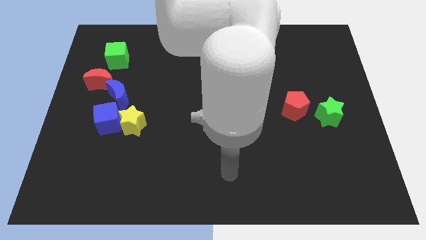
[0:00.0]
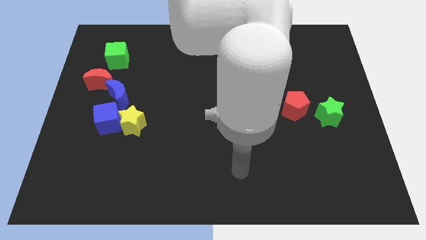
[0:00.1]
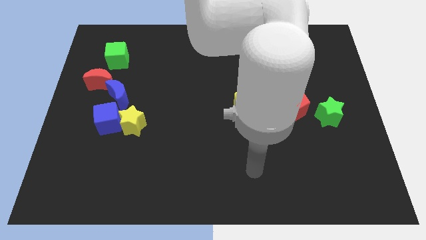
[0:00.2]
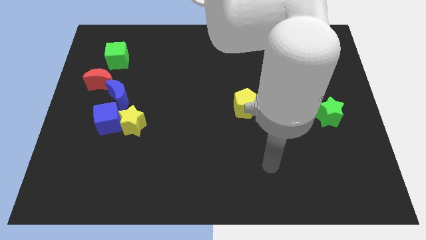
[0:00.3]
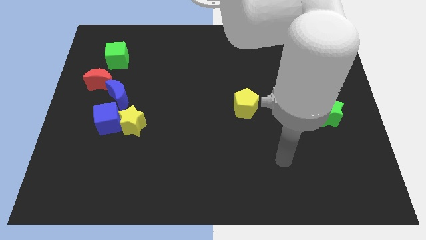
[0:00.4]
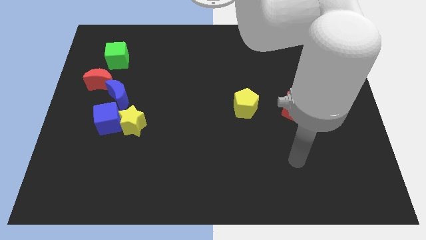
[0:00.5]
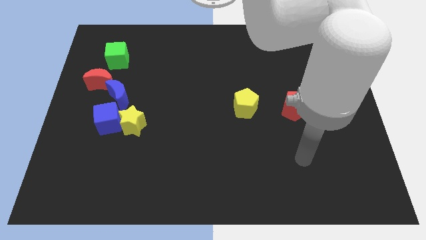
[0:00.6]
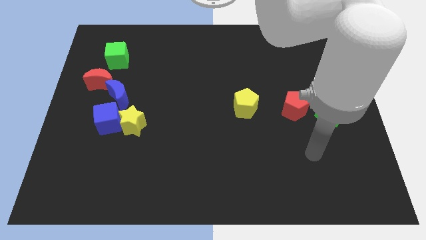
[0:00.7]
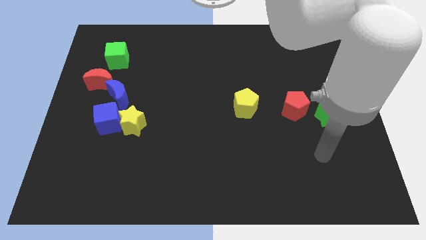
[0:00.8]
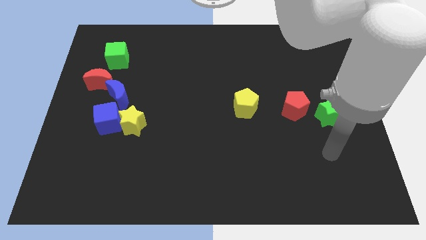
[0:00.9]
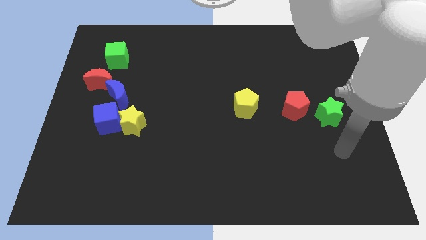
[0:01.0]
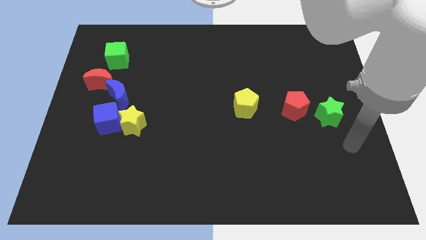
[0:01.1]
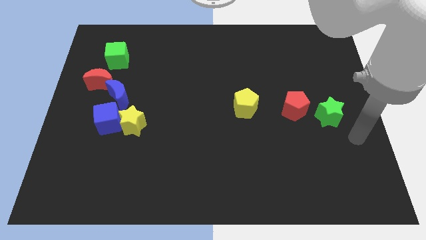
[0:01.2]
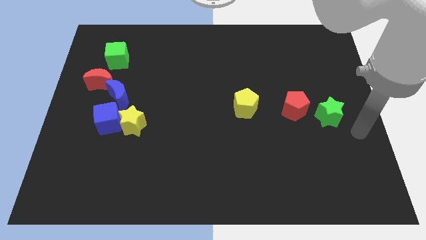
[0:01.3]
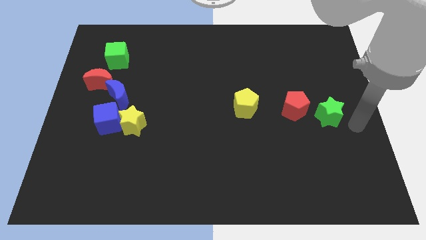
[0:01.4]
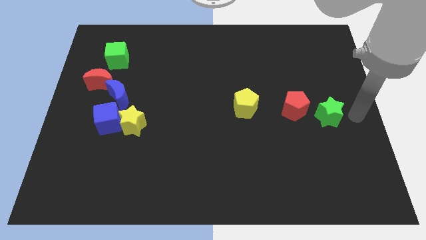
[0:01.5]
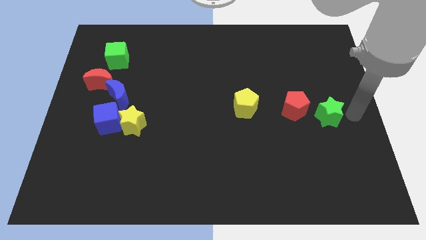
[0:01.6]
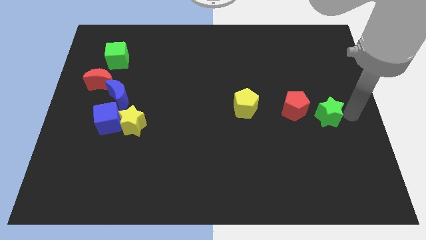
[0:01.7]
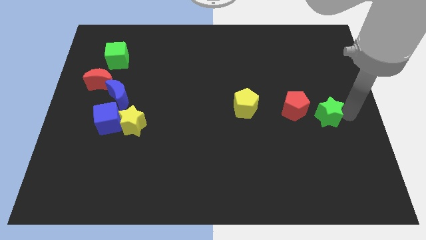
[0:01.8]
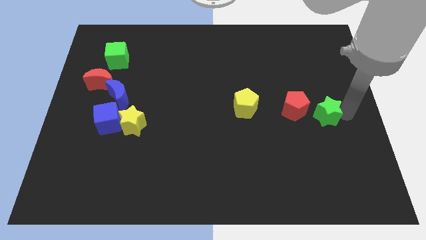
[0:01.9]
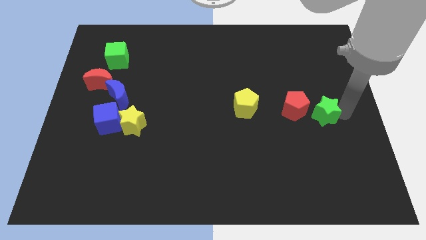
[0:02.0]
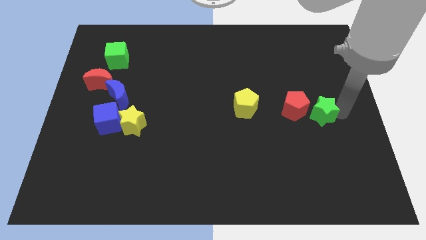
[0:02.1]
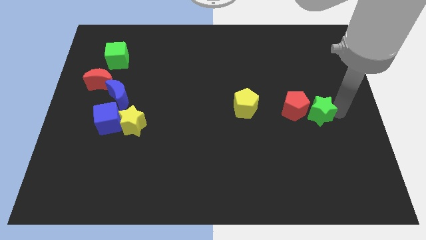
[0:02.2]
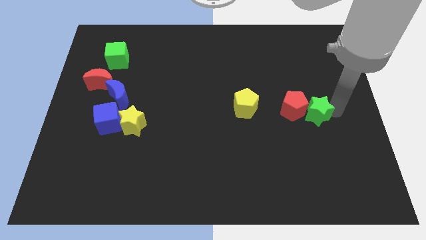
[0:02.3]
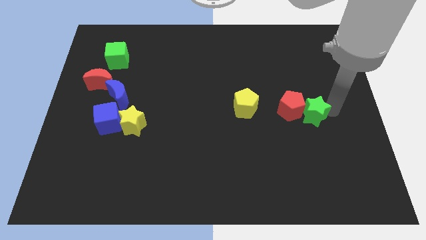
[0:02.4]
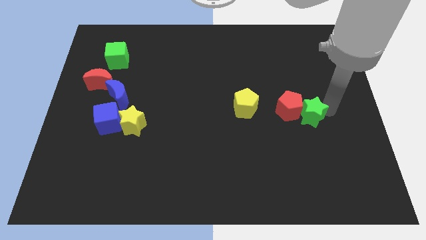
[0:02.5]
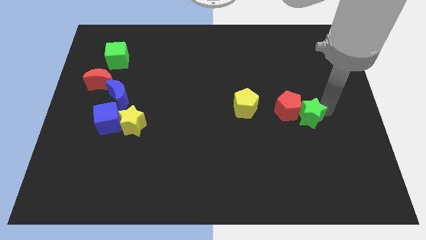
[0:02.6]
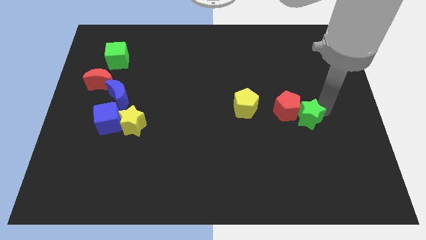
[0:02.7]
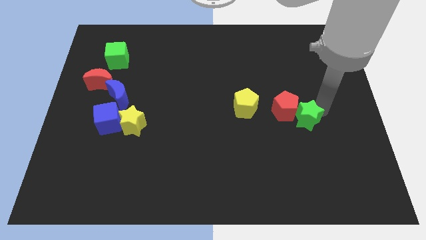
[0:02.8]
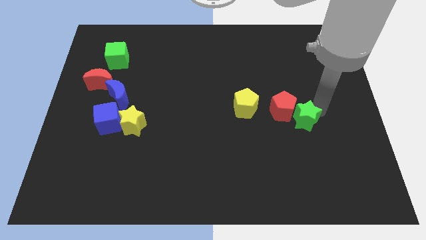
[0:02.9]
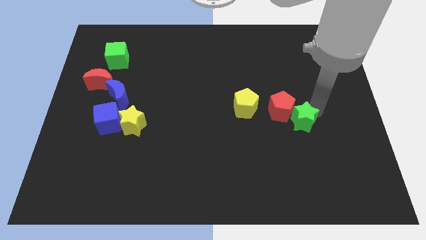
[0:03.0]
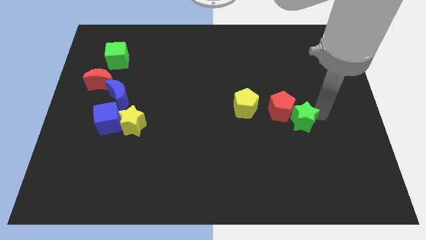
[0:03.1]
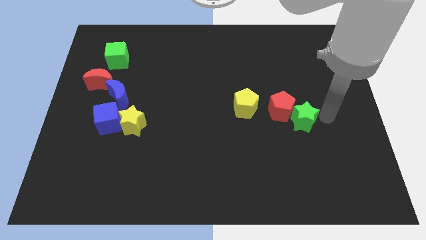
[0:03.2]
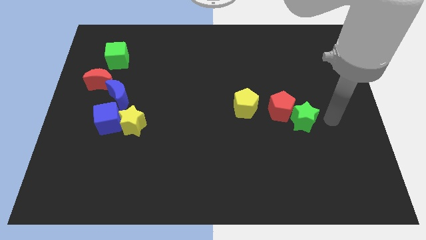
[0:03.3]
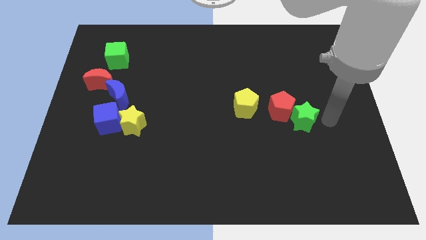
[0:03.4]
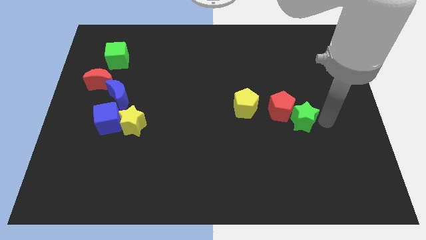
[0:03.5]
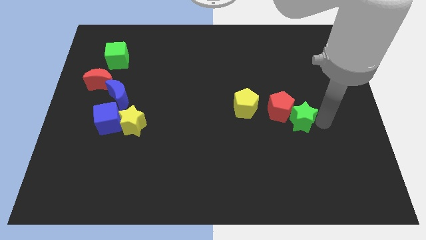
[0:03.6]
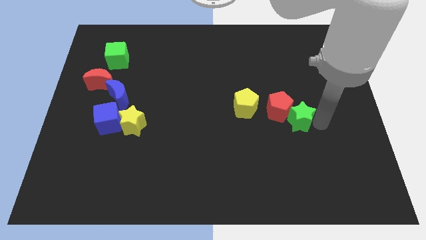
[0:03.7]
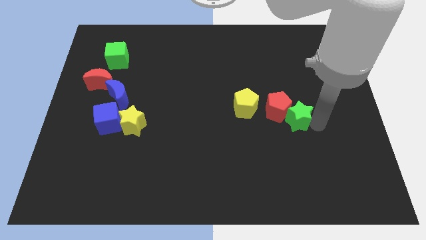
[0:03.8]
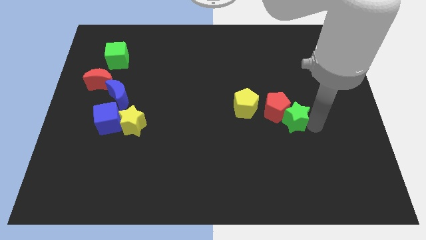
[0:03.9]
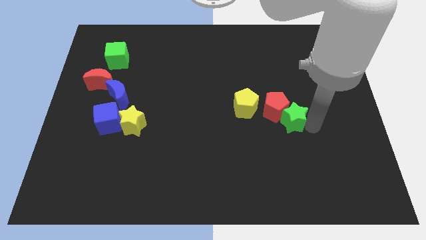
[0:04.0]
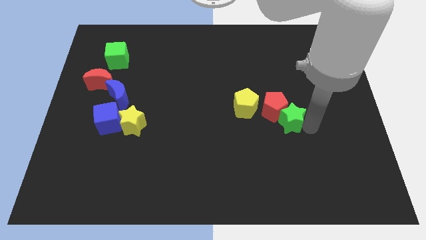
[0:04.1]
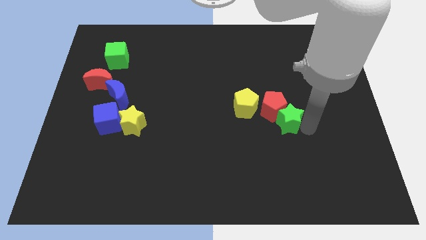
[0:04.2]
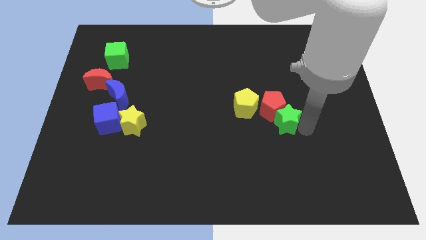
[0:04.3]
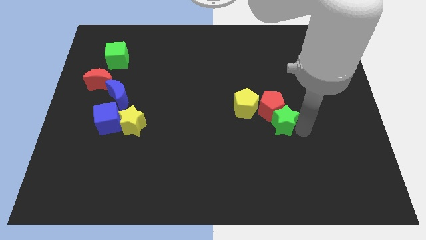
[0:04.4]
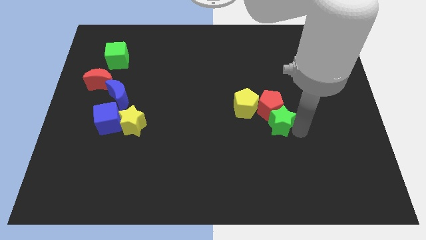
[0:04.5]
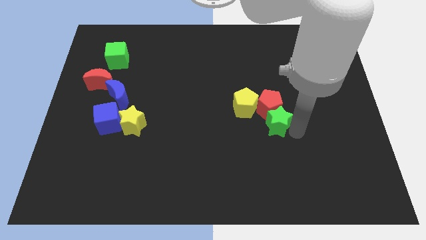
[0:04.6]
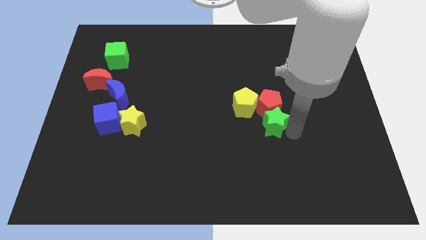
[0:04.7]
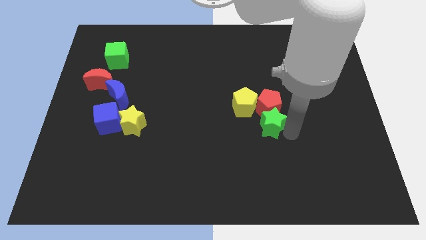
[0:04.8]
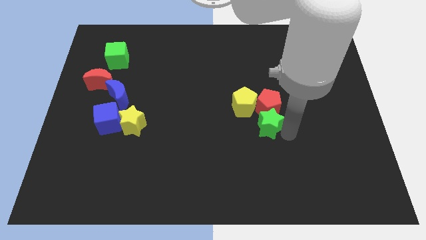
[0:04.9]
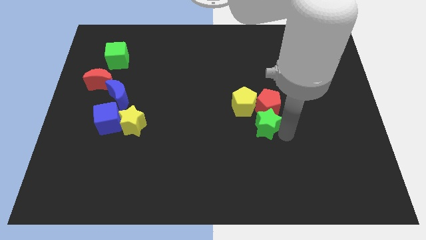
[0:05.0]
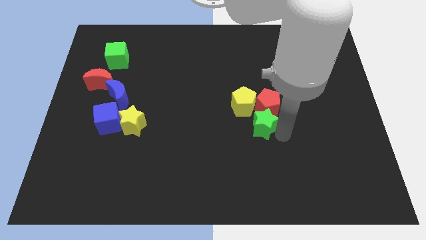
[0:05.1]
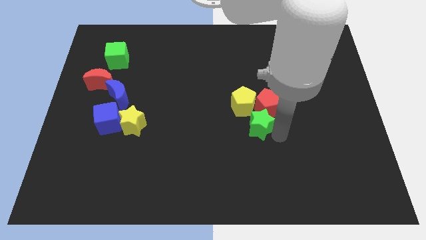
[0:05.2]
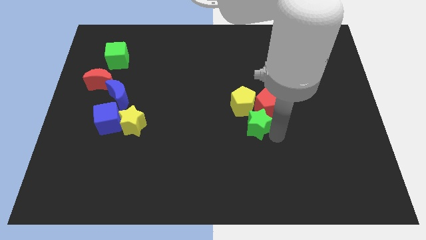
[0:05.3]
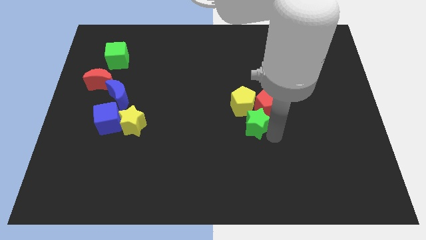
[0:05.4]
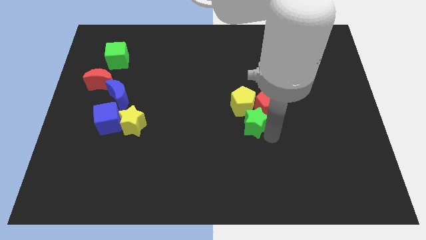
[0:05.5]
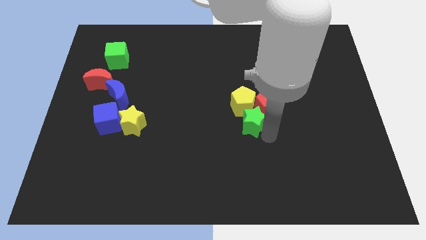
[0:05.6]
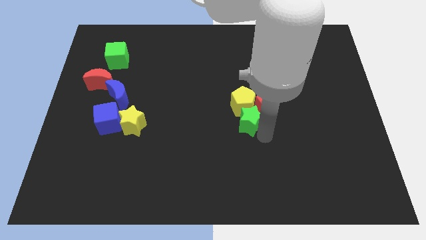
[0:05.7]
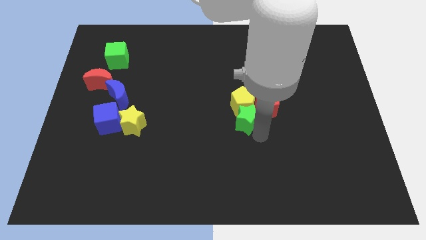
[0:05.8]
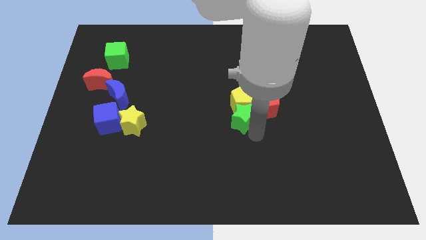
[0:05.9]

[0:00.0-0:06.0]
slide the green star left

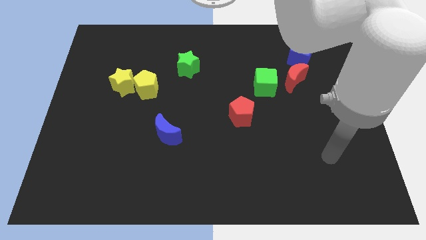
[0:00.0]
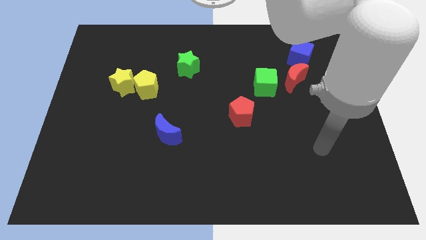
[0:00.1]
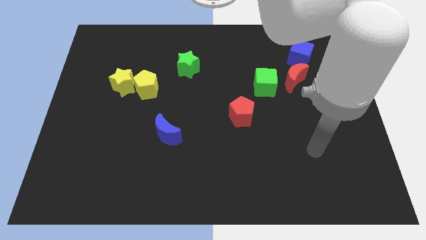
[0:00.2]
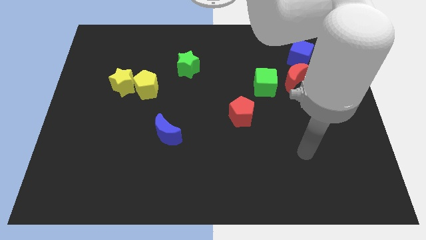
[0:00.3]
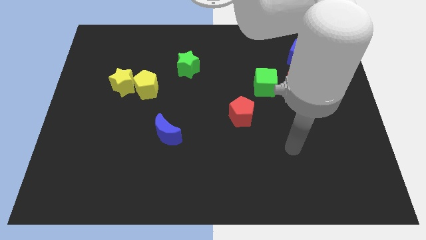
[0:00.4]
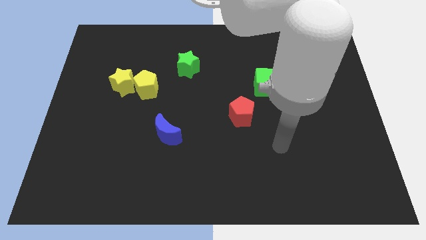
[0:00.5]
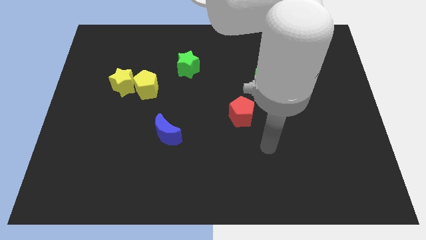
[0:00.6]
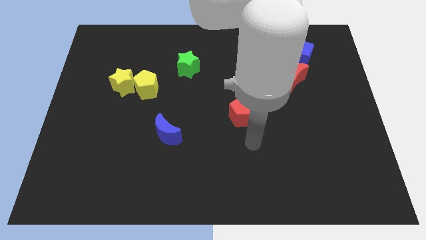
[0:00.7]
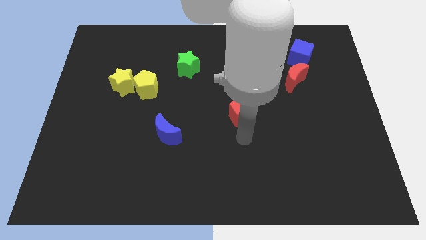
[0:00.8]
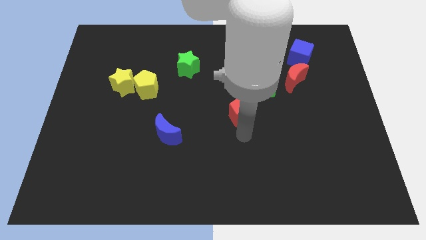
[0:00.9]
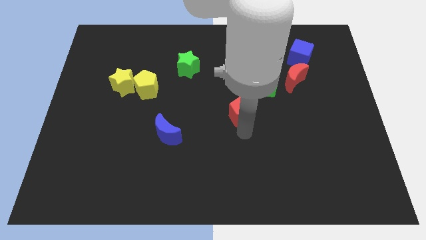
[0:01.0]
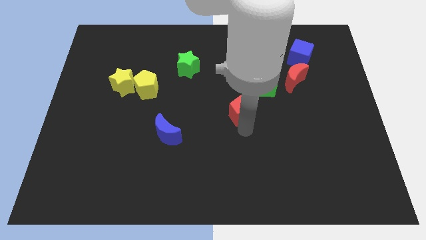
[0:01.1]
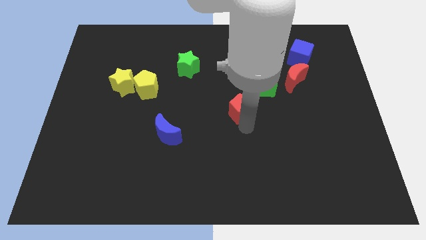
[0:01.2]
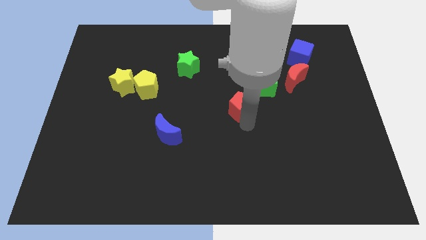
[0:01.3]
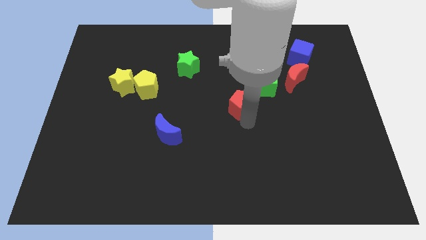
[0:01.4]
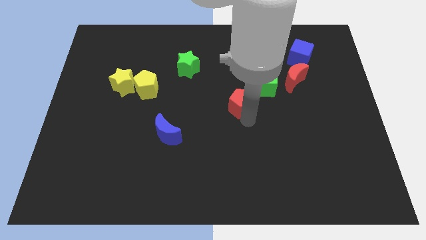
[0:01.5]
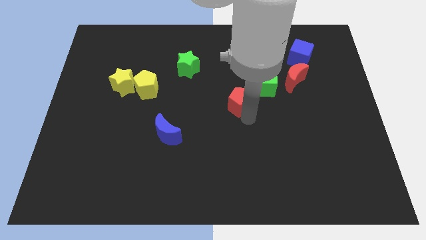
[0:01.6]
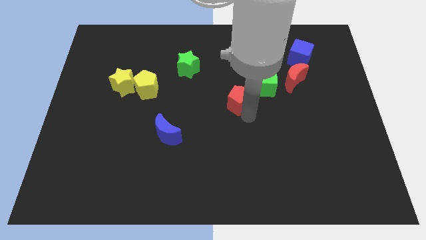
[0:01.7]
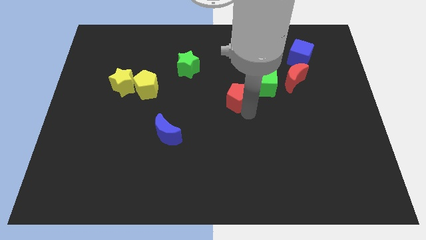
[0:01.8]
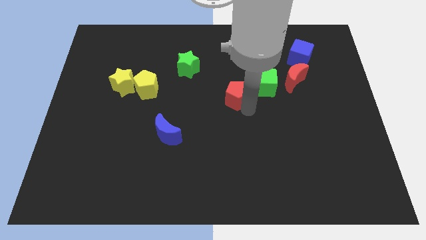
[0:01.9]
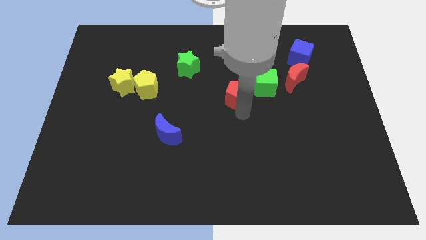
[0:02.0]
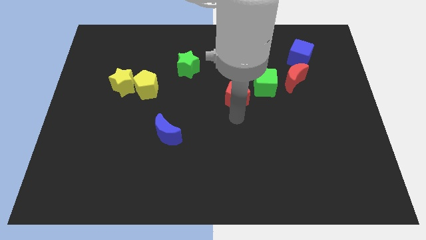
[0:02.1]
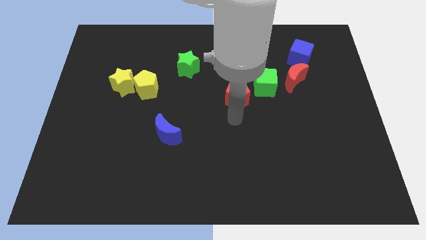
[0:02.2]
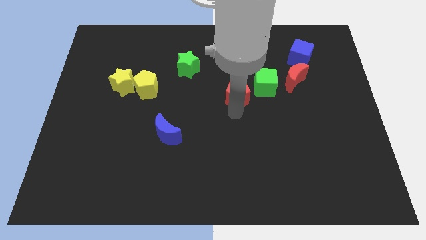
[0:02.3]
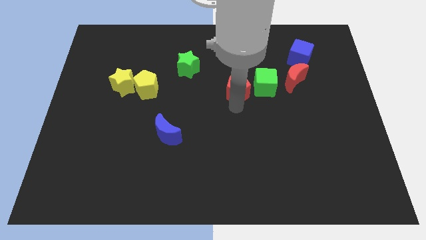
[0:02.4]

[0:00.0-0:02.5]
slightly slide the red pentagon upwards
